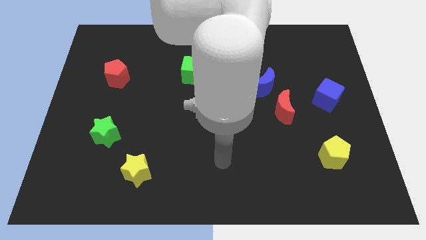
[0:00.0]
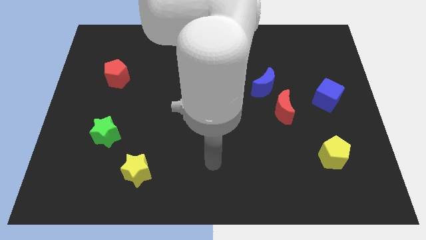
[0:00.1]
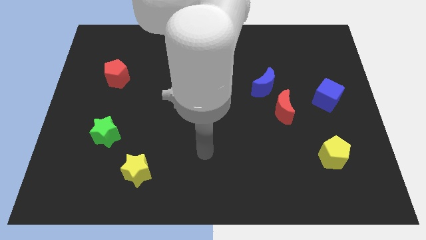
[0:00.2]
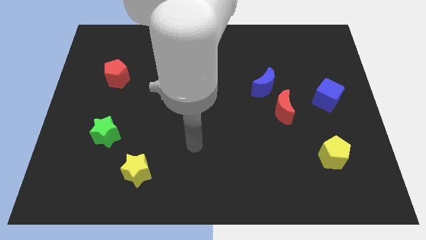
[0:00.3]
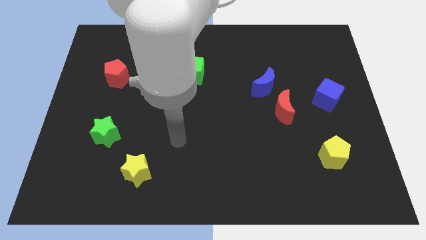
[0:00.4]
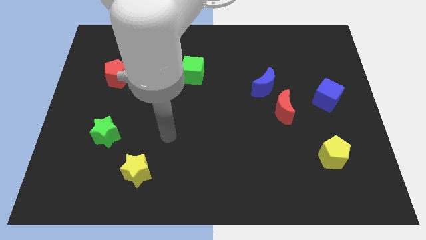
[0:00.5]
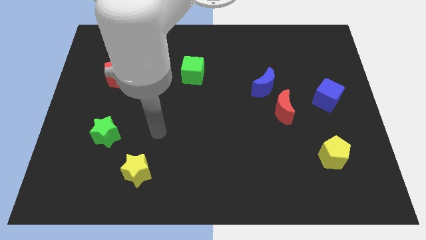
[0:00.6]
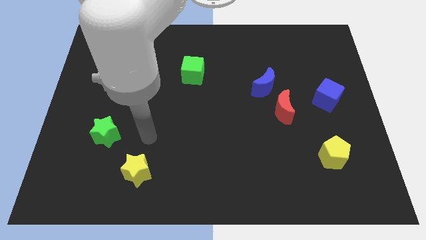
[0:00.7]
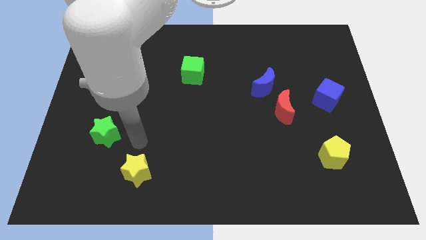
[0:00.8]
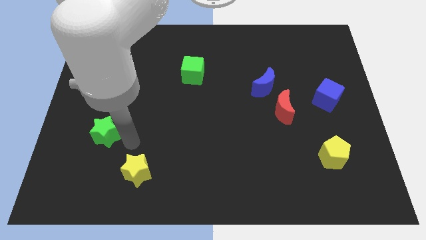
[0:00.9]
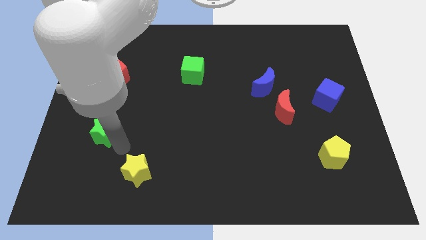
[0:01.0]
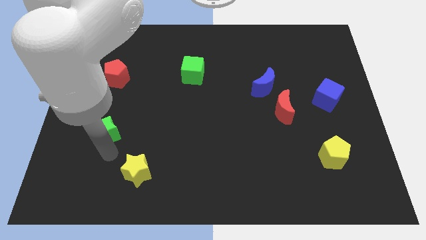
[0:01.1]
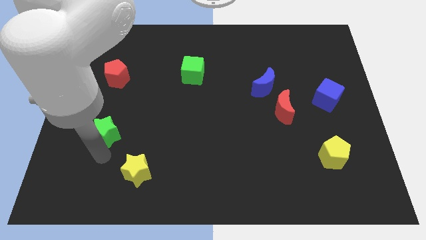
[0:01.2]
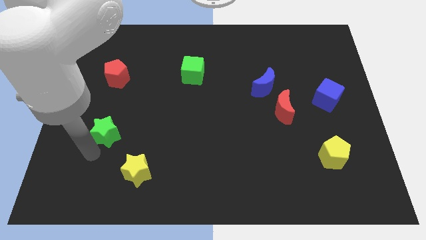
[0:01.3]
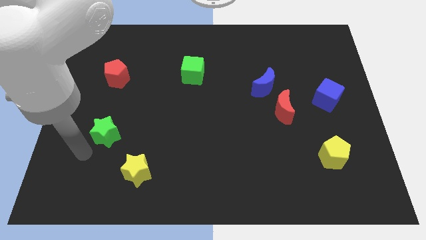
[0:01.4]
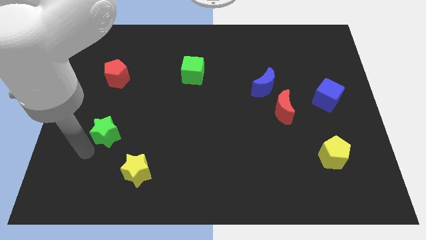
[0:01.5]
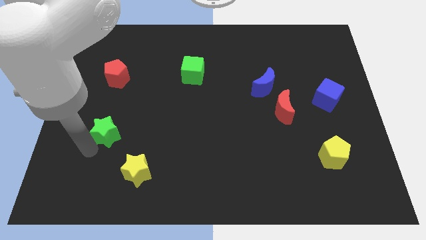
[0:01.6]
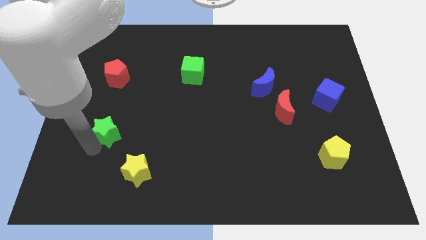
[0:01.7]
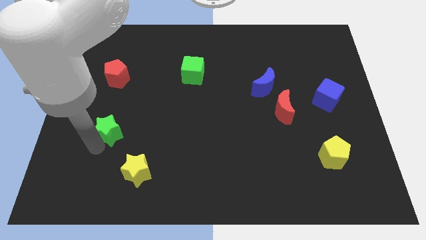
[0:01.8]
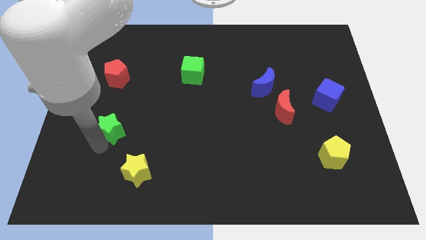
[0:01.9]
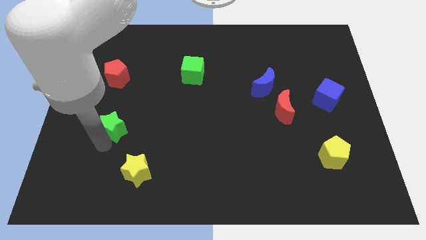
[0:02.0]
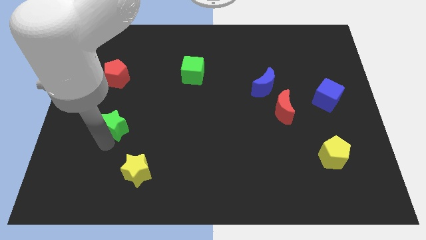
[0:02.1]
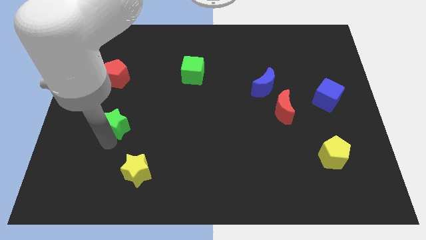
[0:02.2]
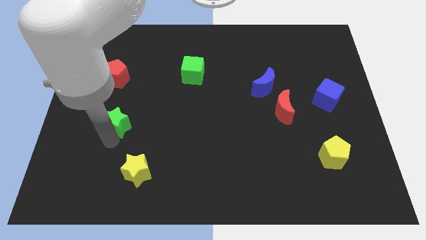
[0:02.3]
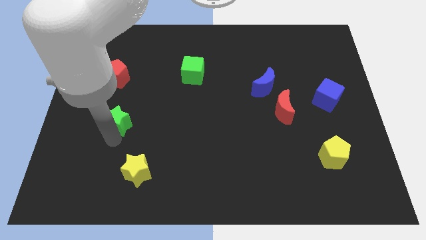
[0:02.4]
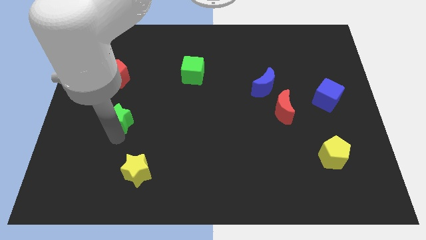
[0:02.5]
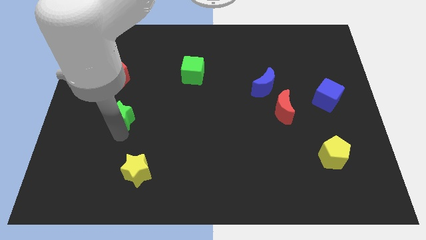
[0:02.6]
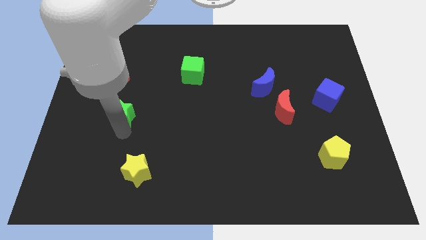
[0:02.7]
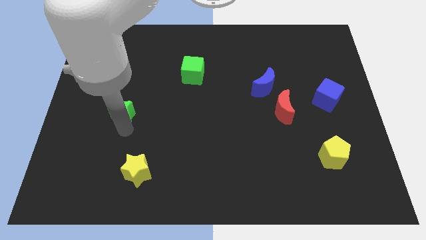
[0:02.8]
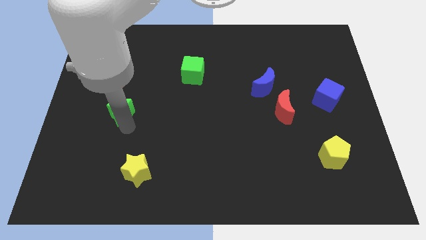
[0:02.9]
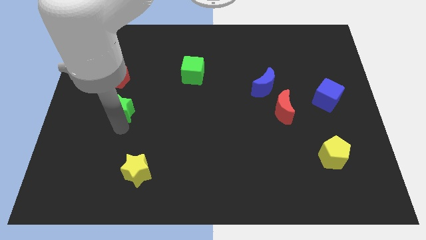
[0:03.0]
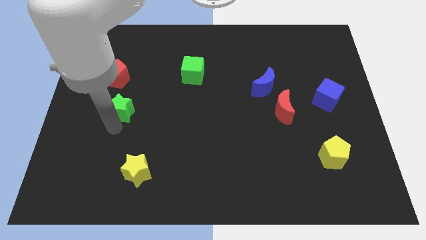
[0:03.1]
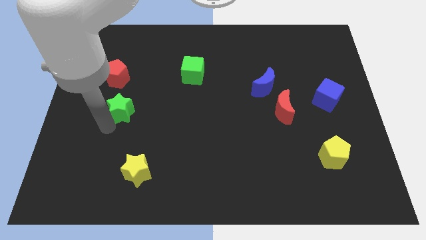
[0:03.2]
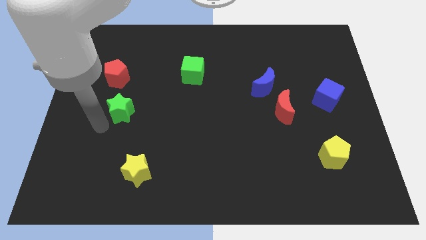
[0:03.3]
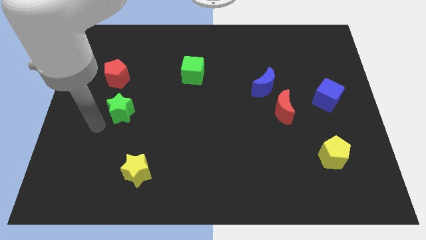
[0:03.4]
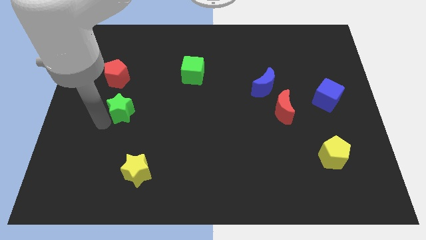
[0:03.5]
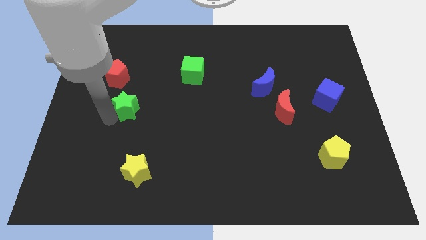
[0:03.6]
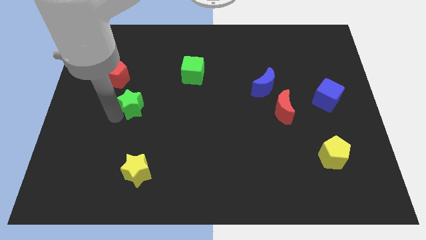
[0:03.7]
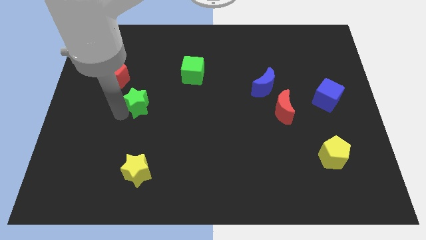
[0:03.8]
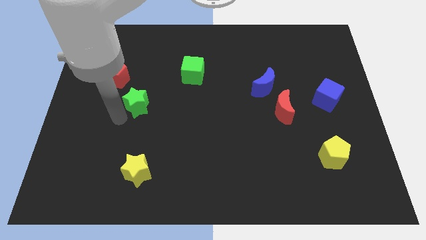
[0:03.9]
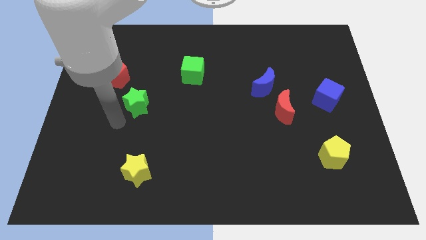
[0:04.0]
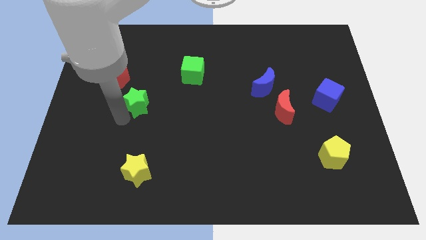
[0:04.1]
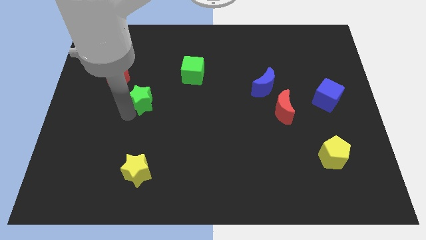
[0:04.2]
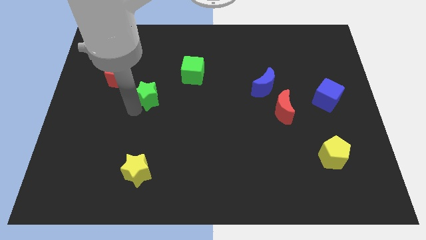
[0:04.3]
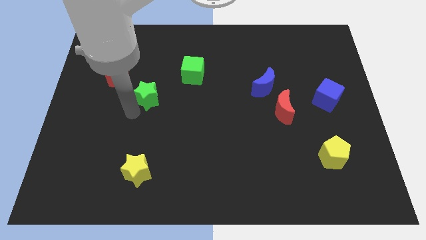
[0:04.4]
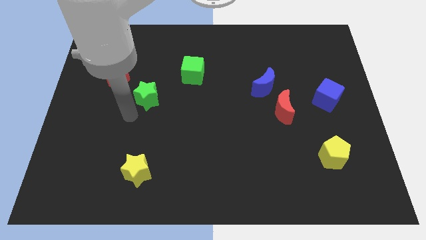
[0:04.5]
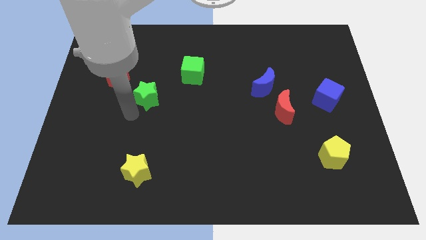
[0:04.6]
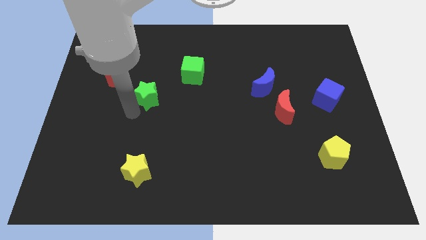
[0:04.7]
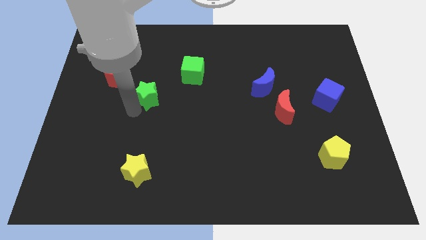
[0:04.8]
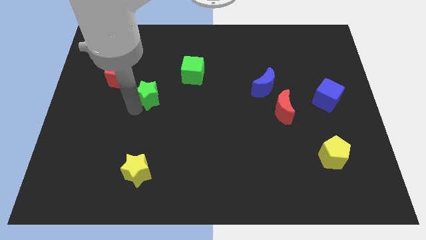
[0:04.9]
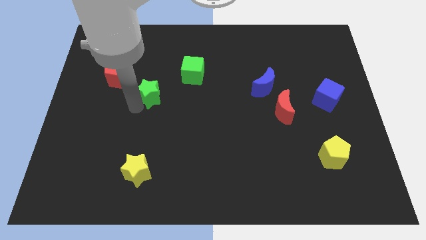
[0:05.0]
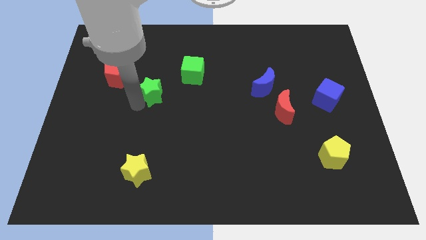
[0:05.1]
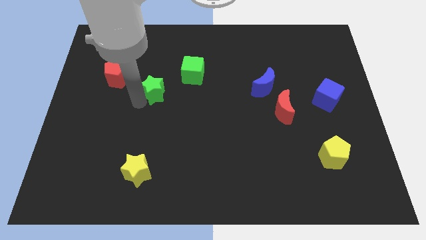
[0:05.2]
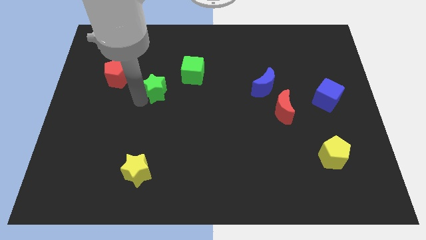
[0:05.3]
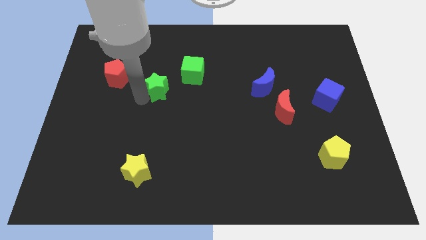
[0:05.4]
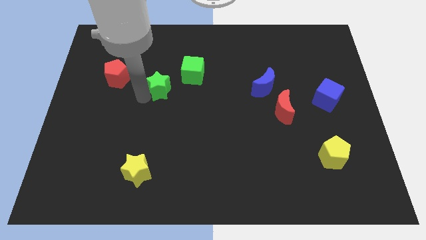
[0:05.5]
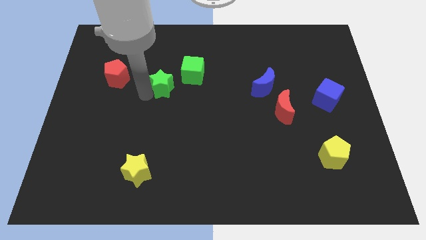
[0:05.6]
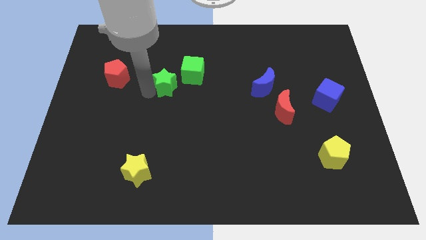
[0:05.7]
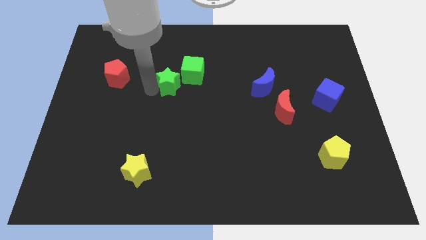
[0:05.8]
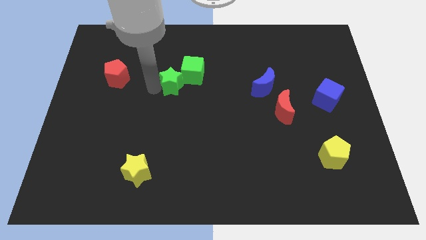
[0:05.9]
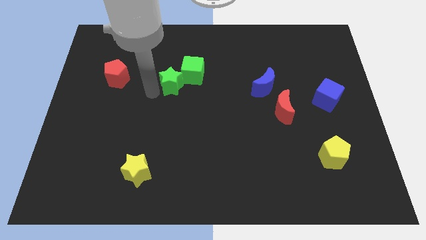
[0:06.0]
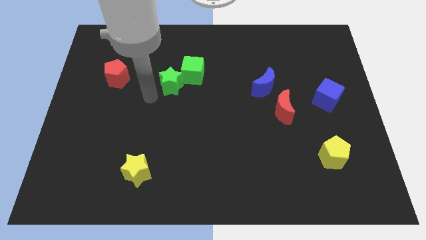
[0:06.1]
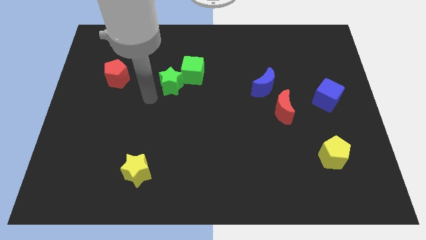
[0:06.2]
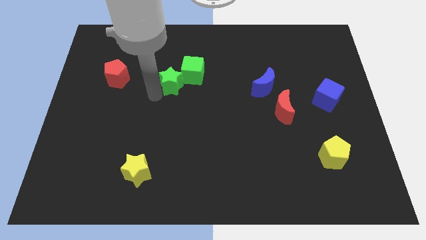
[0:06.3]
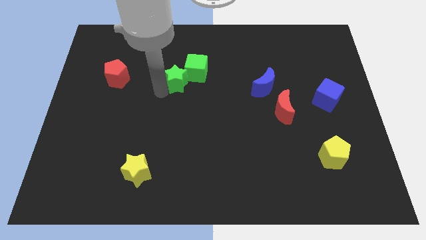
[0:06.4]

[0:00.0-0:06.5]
move the green star close to the green cube

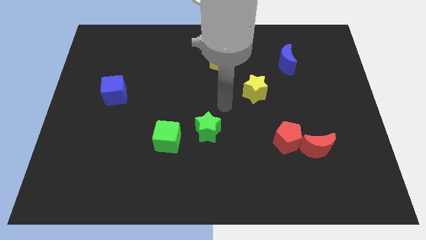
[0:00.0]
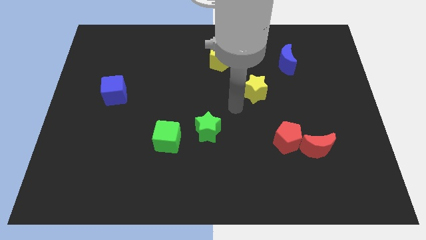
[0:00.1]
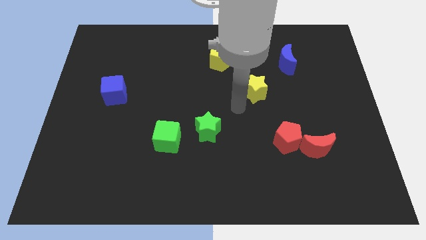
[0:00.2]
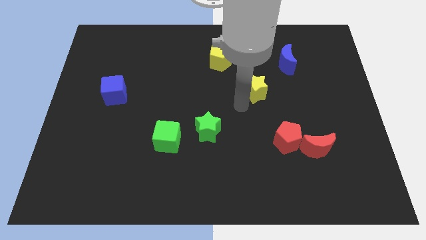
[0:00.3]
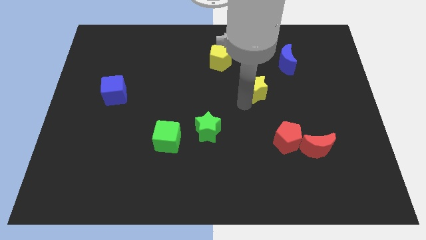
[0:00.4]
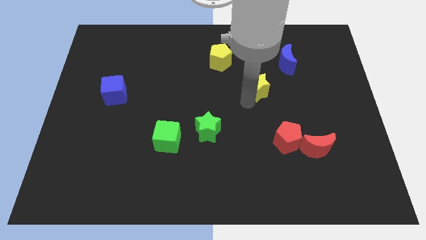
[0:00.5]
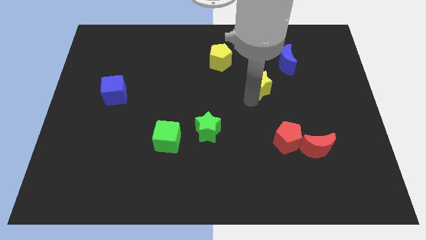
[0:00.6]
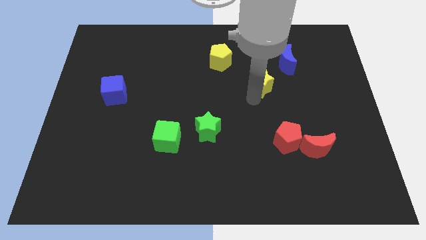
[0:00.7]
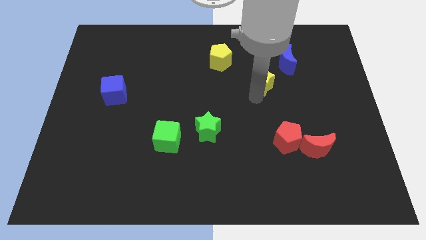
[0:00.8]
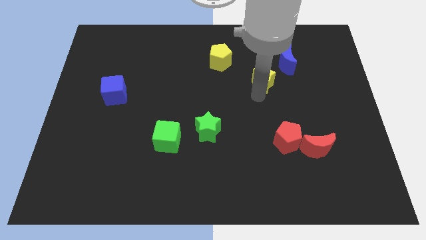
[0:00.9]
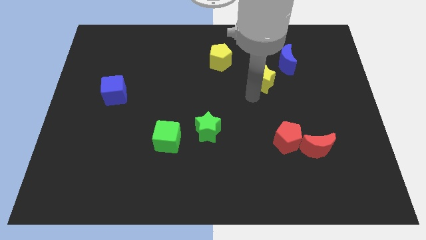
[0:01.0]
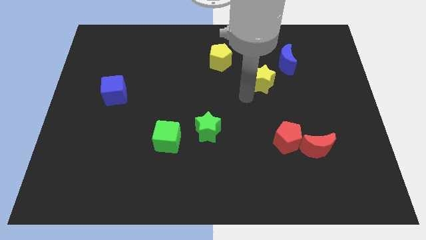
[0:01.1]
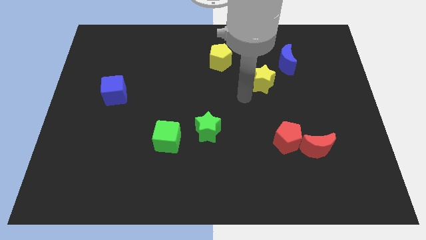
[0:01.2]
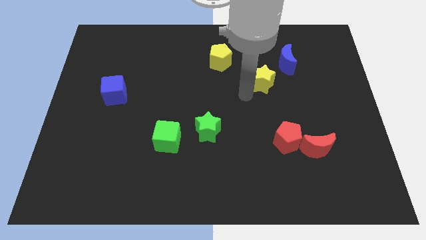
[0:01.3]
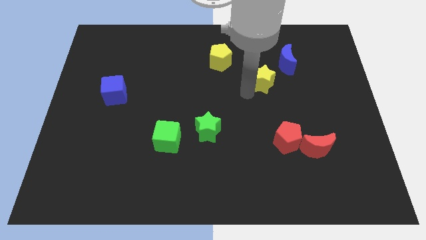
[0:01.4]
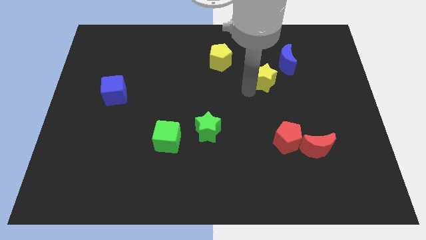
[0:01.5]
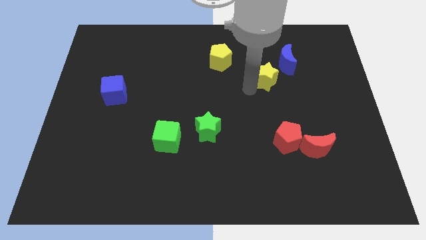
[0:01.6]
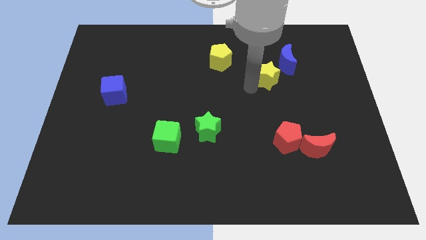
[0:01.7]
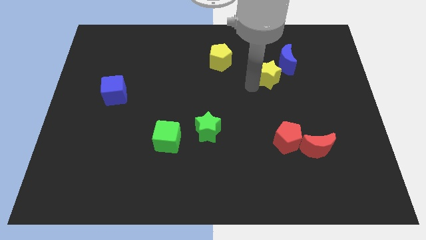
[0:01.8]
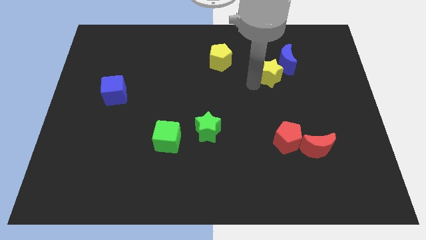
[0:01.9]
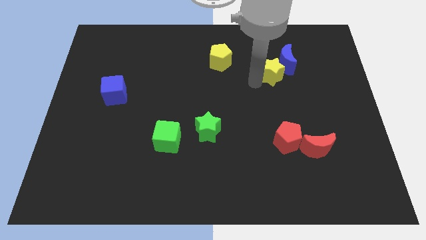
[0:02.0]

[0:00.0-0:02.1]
put the yellow star next to the blue moon
